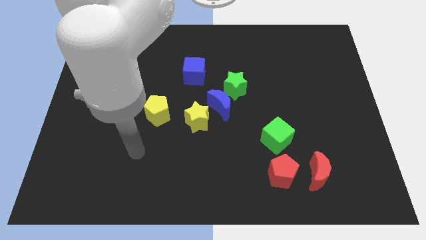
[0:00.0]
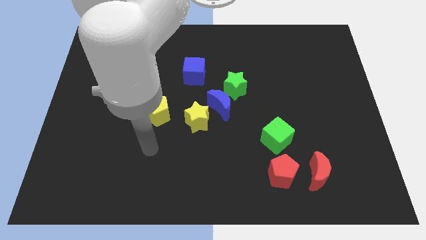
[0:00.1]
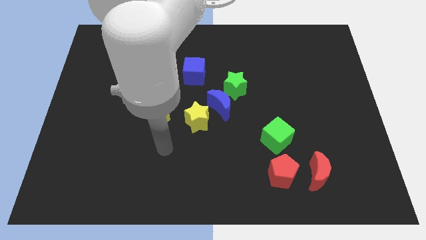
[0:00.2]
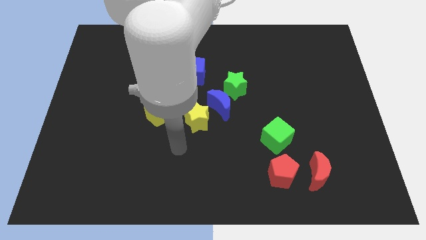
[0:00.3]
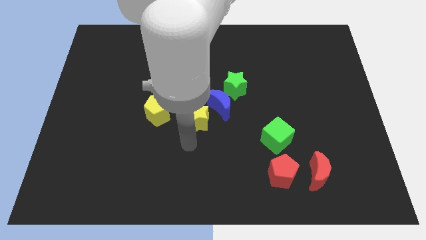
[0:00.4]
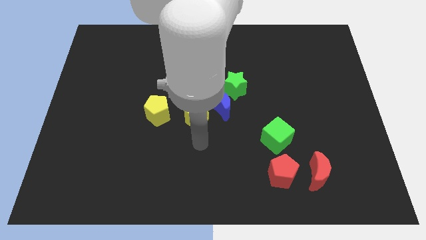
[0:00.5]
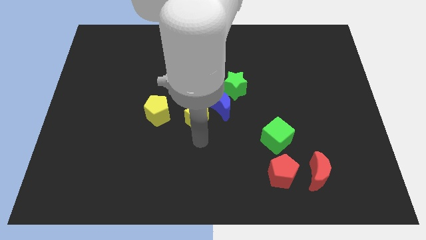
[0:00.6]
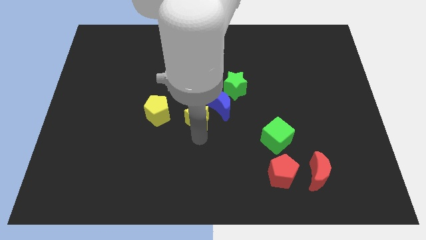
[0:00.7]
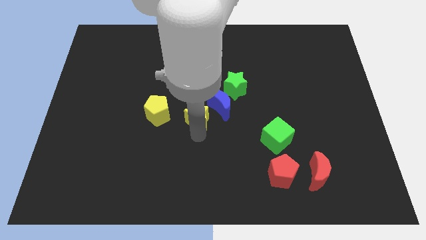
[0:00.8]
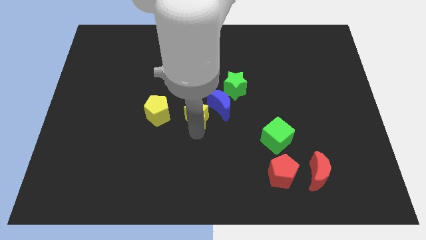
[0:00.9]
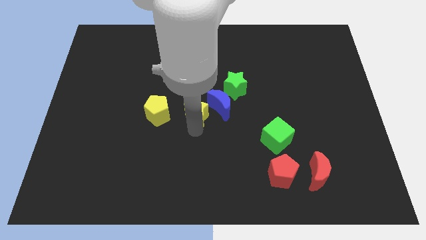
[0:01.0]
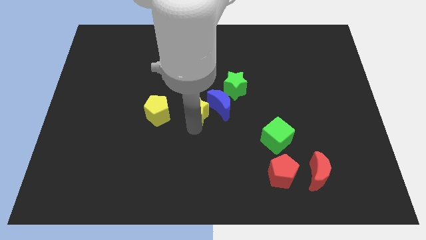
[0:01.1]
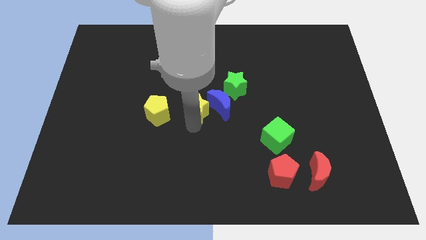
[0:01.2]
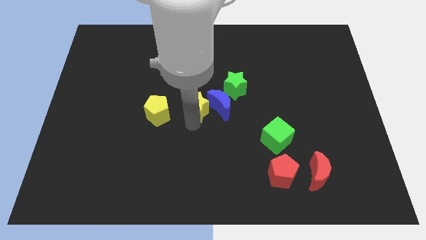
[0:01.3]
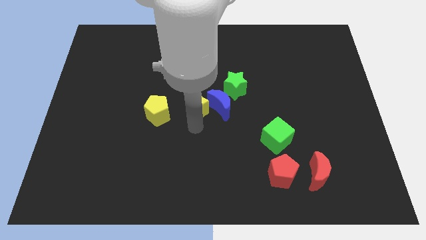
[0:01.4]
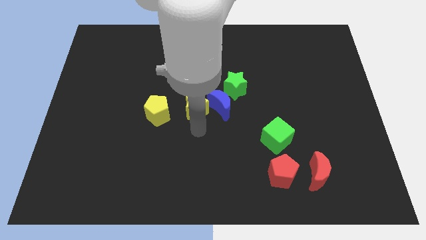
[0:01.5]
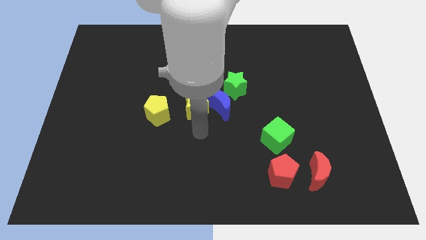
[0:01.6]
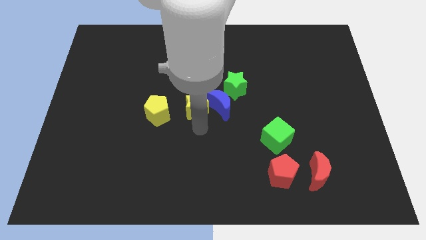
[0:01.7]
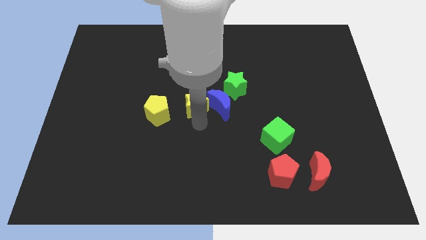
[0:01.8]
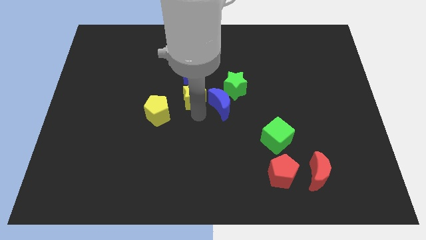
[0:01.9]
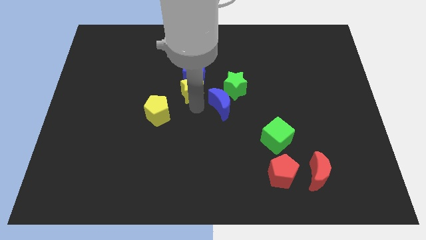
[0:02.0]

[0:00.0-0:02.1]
slide the yellow star to the blue cube

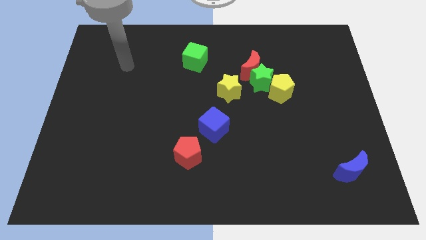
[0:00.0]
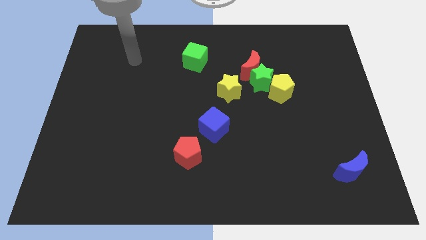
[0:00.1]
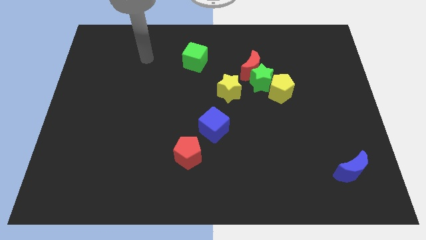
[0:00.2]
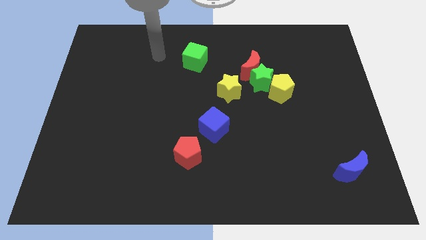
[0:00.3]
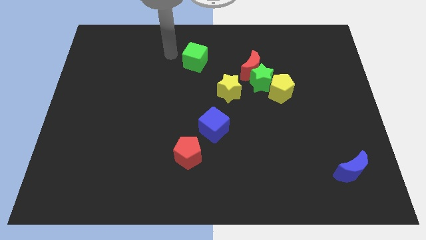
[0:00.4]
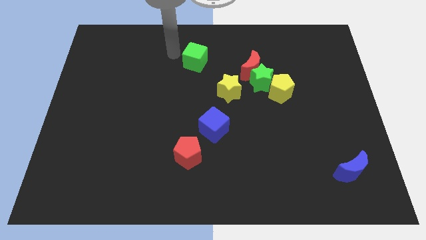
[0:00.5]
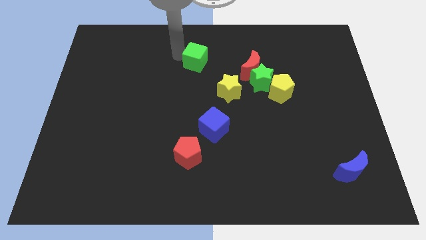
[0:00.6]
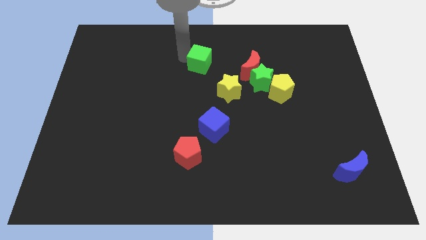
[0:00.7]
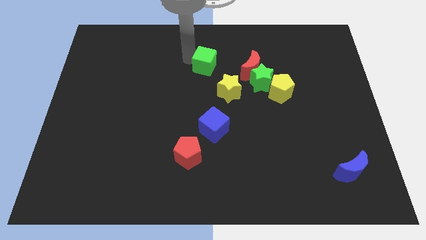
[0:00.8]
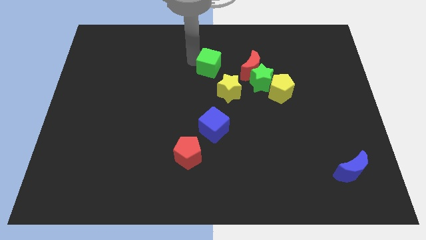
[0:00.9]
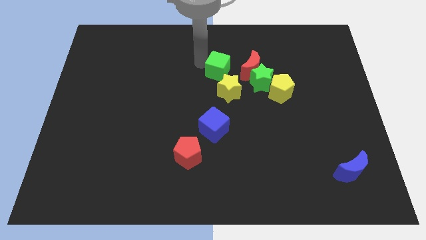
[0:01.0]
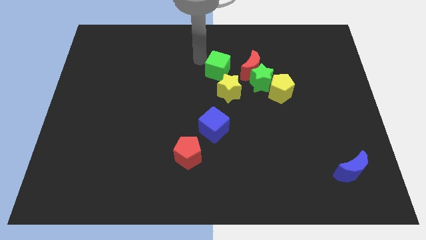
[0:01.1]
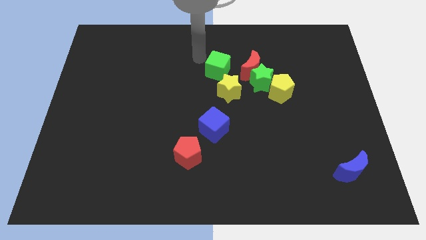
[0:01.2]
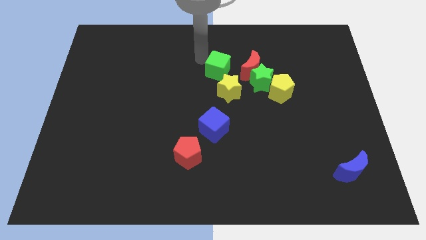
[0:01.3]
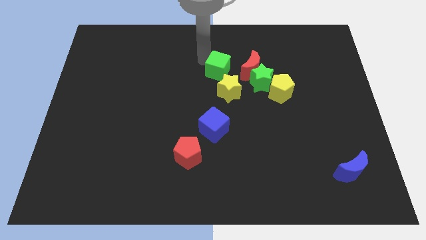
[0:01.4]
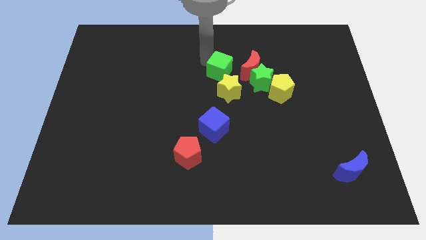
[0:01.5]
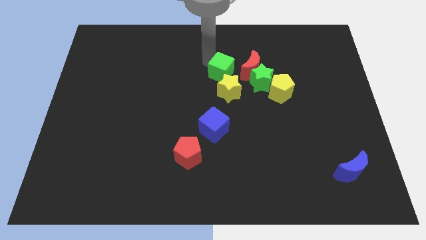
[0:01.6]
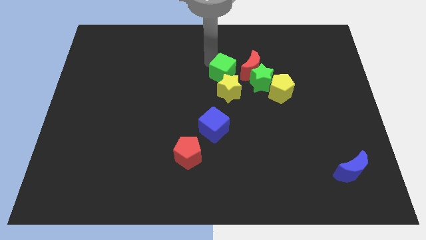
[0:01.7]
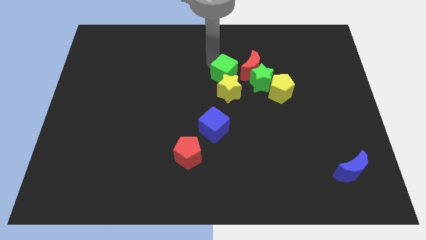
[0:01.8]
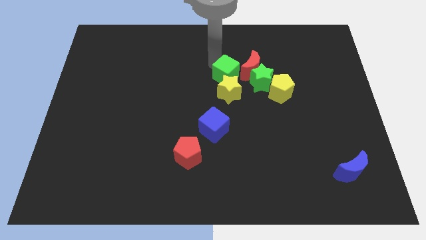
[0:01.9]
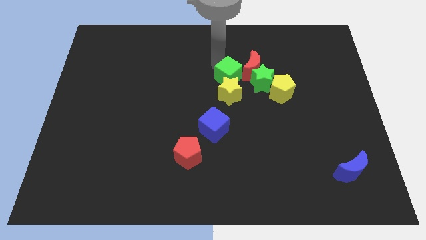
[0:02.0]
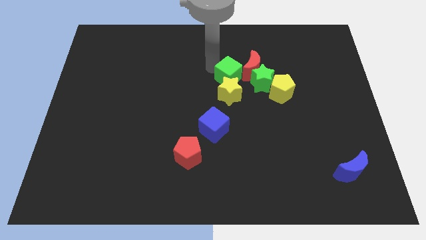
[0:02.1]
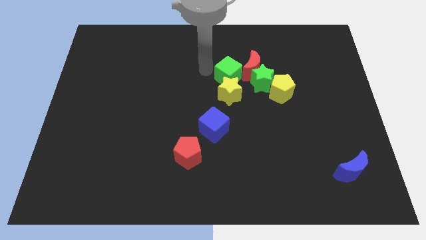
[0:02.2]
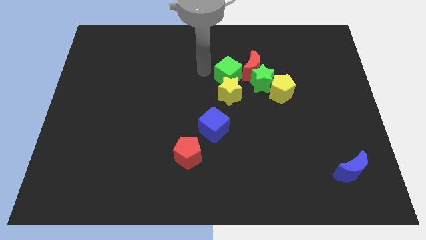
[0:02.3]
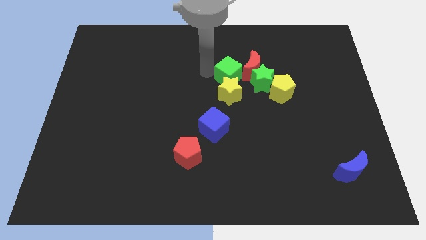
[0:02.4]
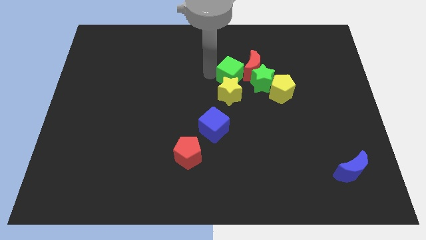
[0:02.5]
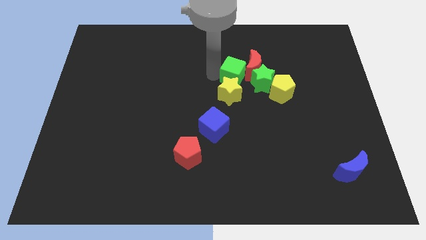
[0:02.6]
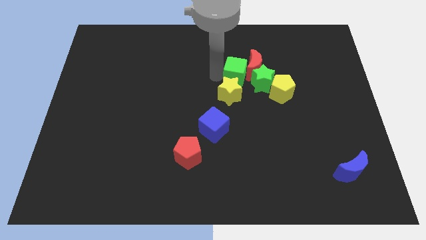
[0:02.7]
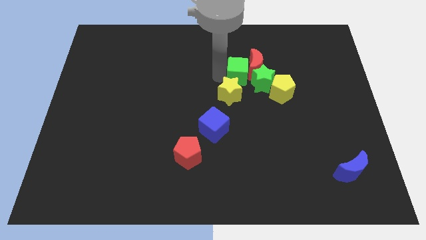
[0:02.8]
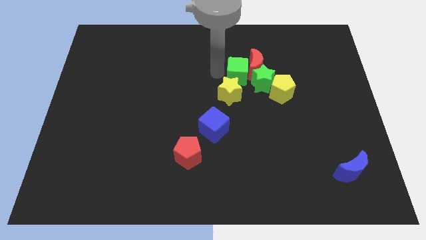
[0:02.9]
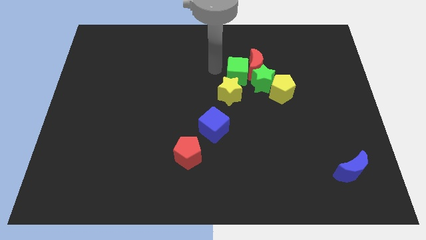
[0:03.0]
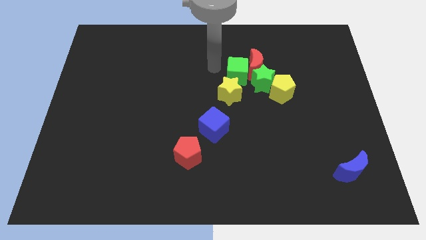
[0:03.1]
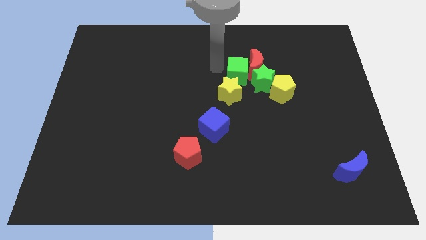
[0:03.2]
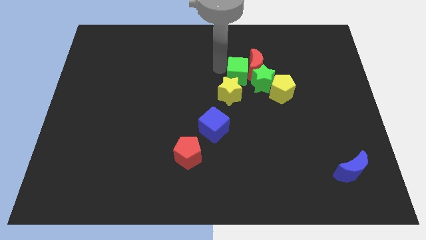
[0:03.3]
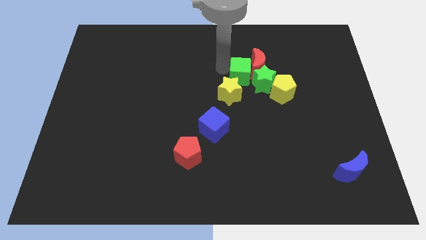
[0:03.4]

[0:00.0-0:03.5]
put the green cube next to the green star

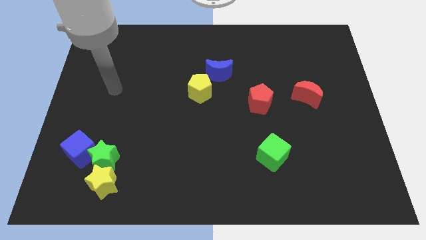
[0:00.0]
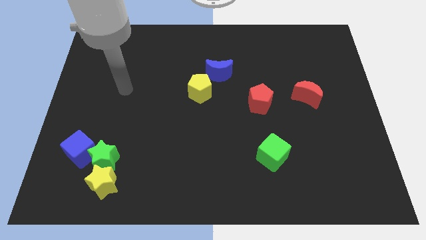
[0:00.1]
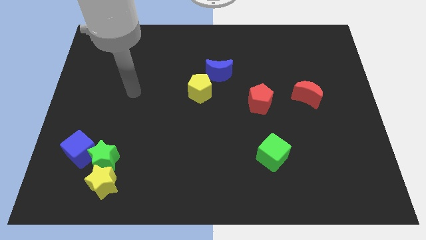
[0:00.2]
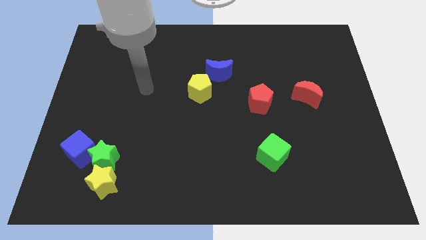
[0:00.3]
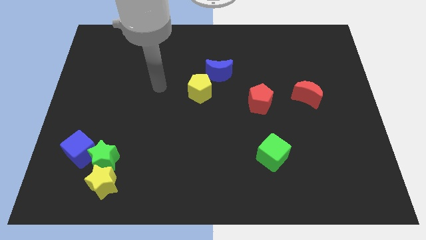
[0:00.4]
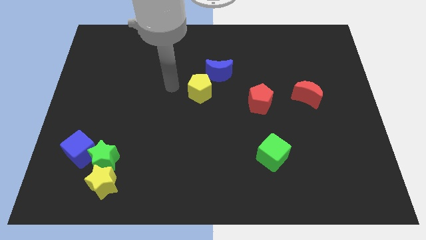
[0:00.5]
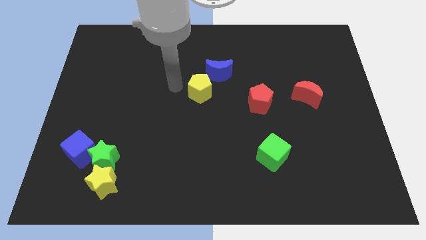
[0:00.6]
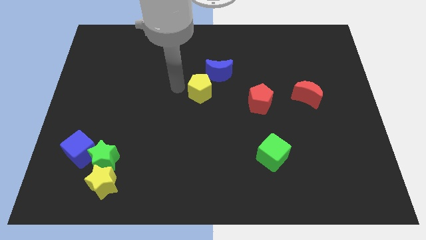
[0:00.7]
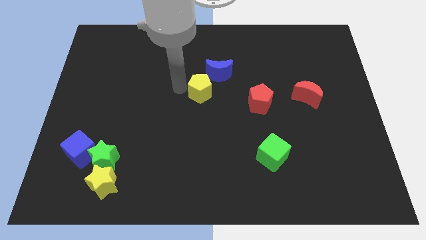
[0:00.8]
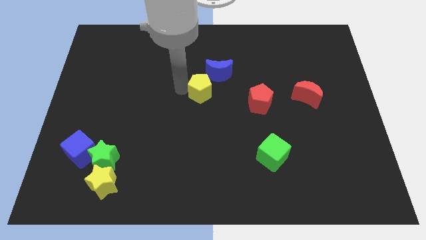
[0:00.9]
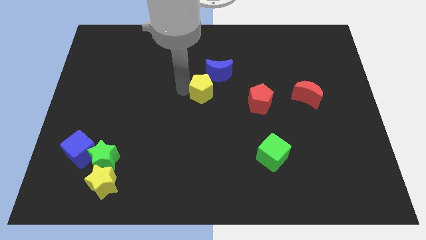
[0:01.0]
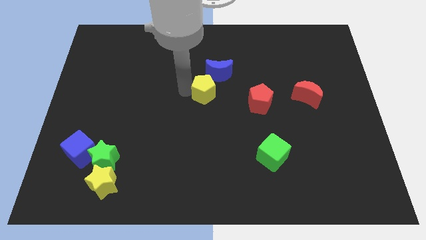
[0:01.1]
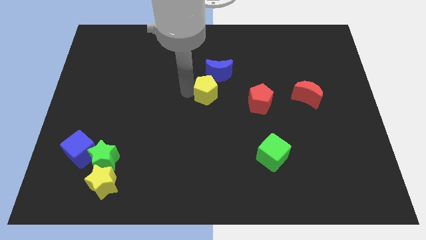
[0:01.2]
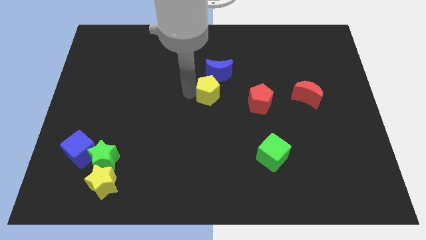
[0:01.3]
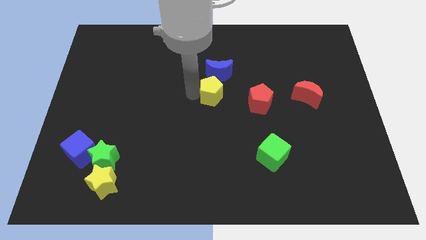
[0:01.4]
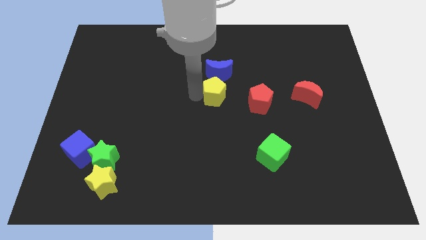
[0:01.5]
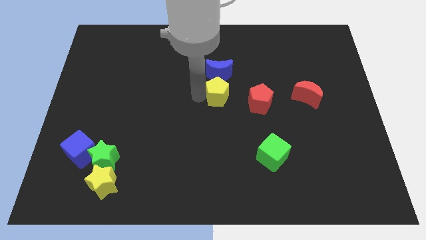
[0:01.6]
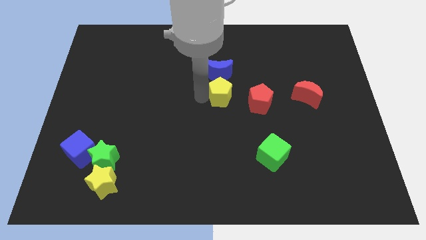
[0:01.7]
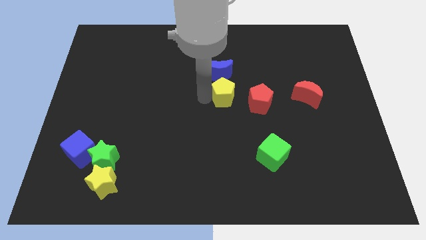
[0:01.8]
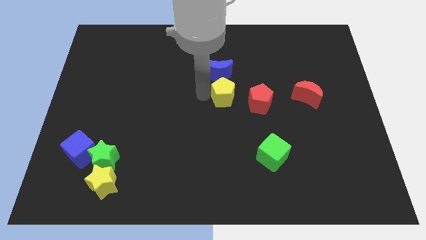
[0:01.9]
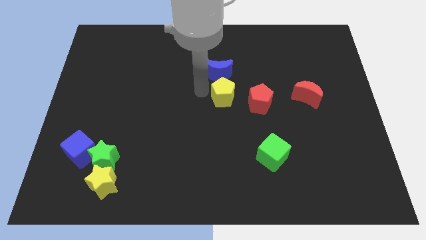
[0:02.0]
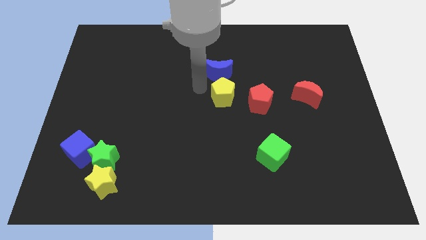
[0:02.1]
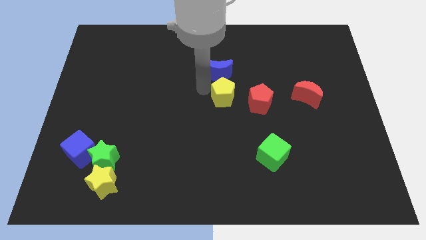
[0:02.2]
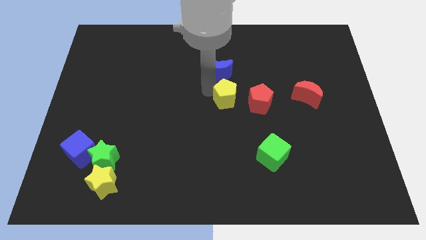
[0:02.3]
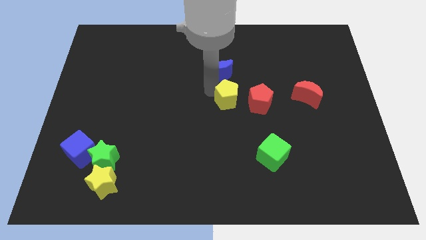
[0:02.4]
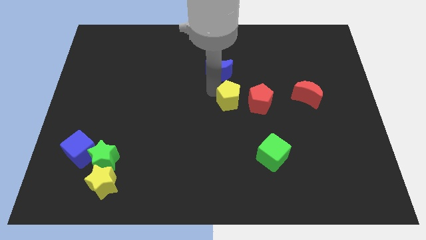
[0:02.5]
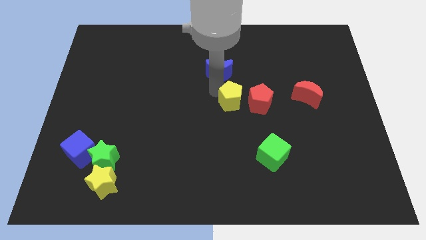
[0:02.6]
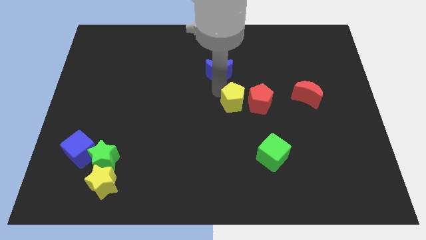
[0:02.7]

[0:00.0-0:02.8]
move the yellow pentagon to the red pentagon
